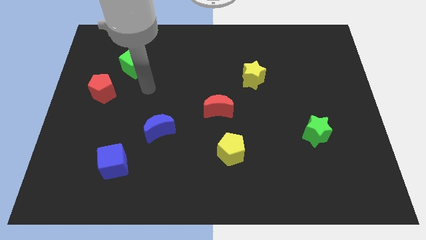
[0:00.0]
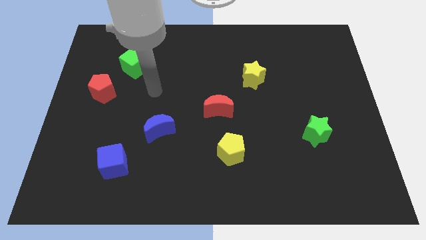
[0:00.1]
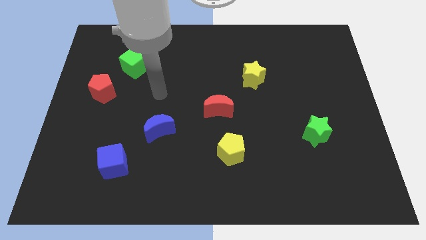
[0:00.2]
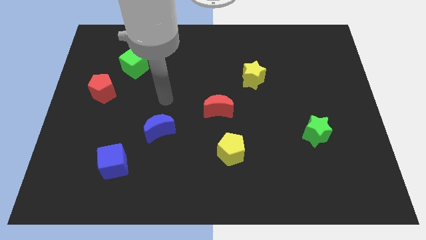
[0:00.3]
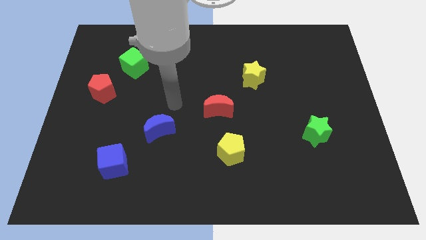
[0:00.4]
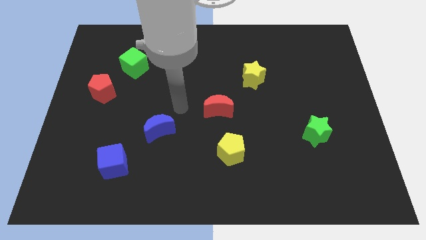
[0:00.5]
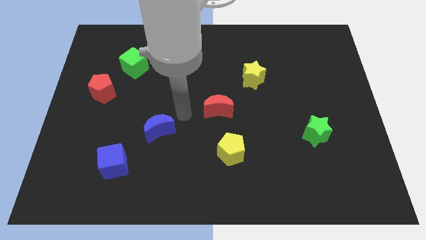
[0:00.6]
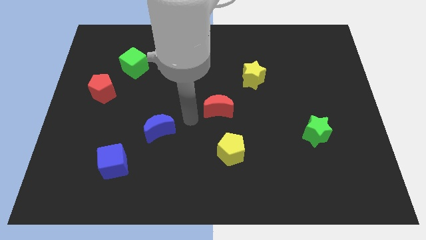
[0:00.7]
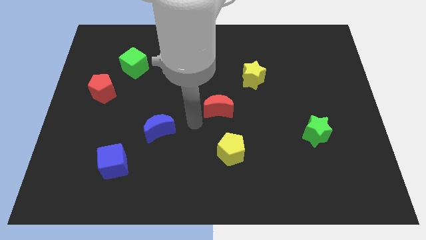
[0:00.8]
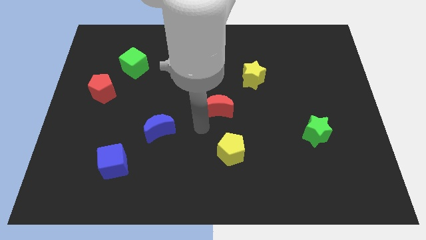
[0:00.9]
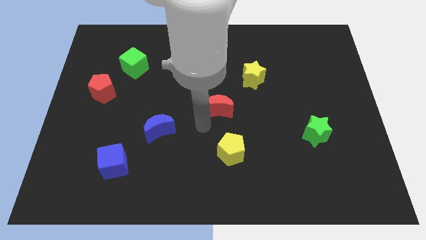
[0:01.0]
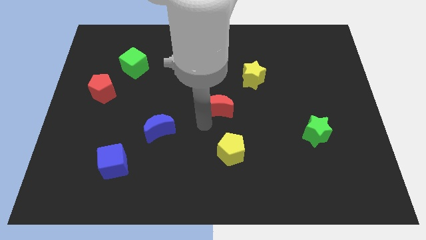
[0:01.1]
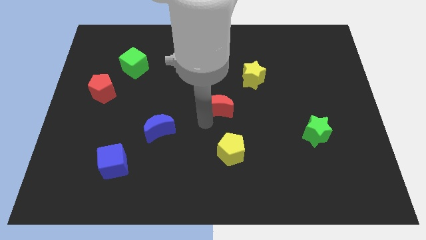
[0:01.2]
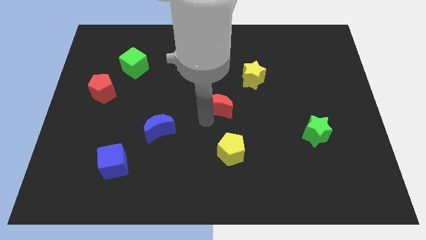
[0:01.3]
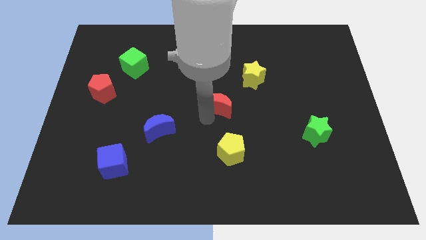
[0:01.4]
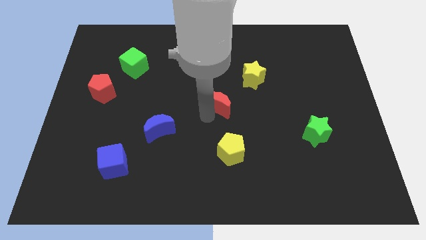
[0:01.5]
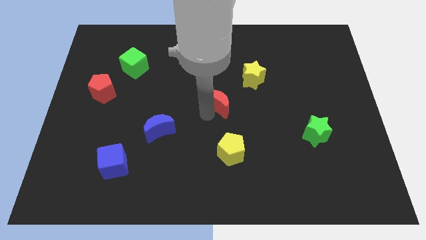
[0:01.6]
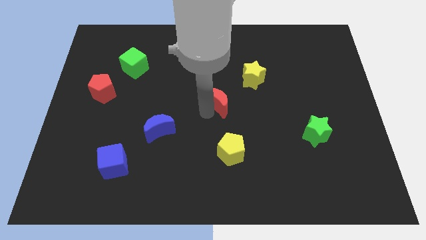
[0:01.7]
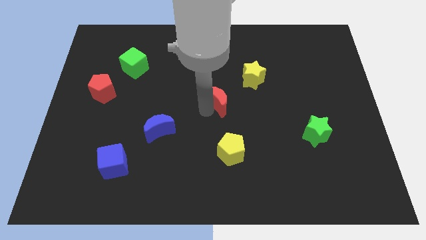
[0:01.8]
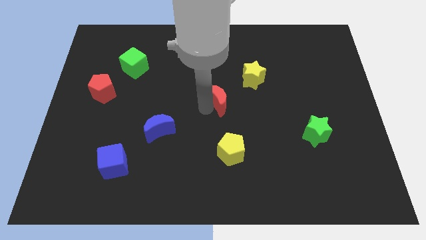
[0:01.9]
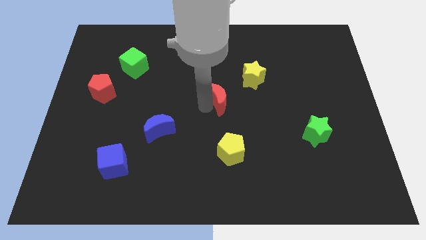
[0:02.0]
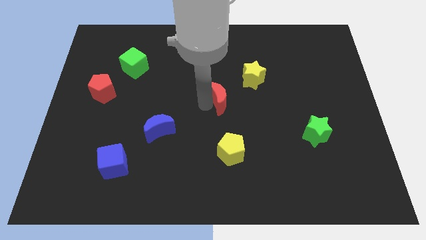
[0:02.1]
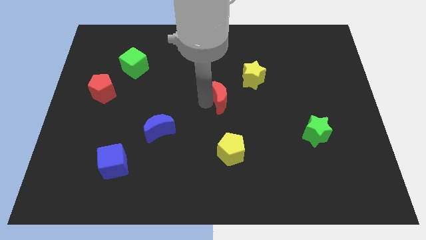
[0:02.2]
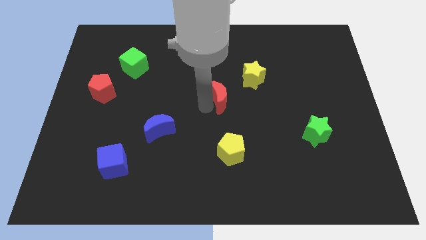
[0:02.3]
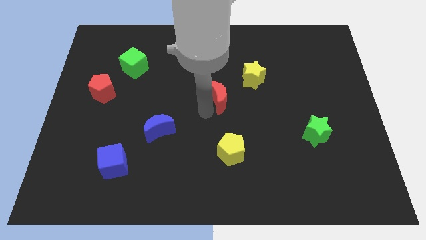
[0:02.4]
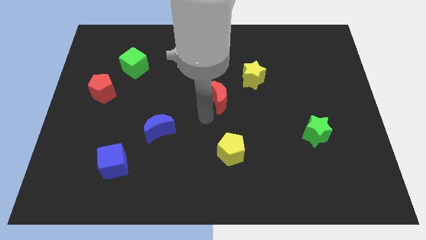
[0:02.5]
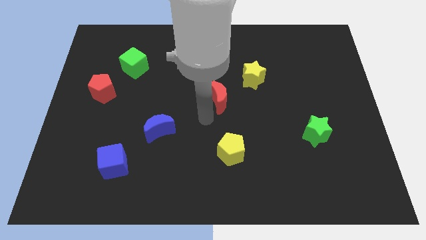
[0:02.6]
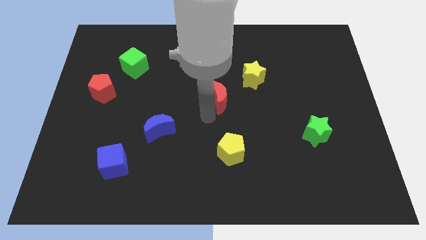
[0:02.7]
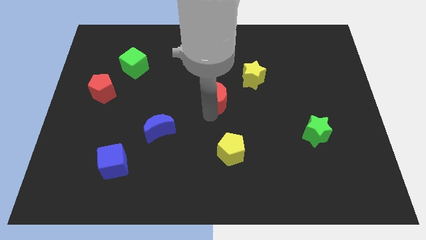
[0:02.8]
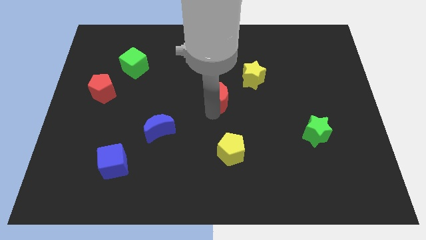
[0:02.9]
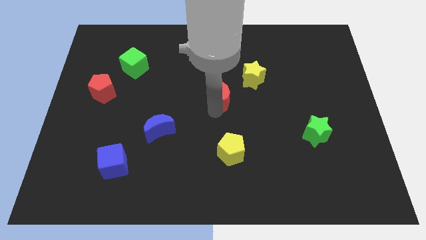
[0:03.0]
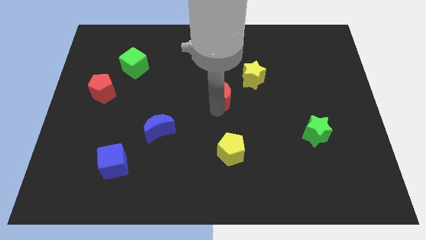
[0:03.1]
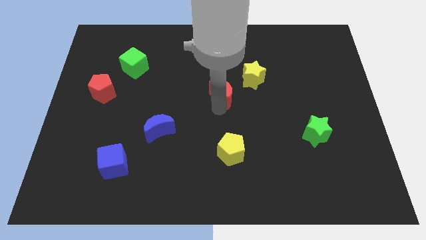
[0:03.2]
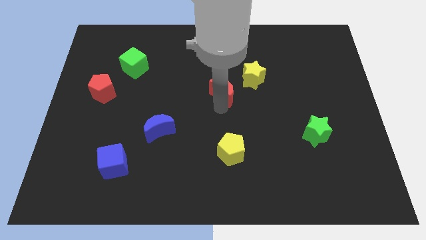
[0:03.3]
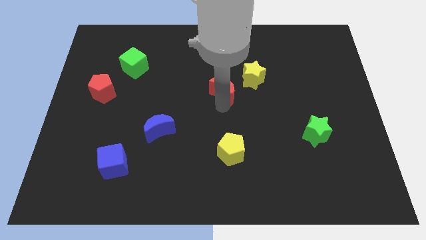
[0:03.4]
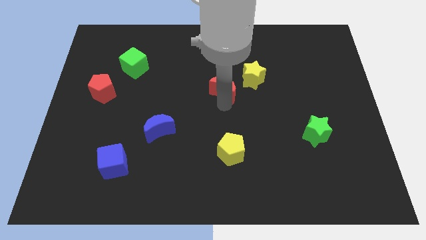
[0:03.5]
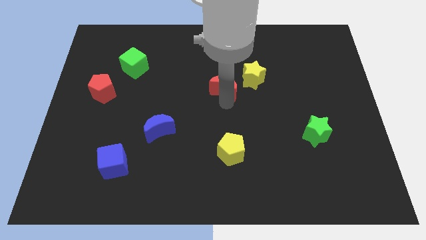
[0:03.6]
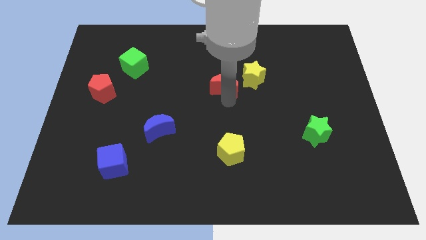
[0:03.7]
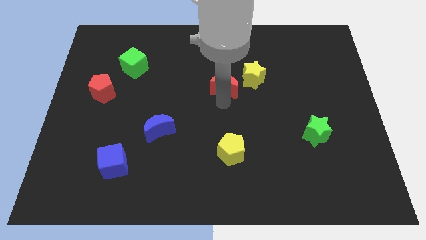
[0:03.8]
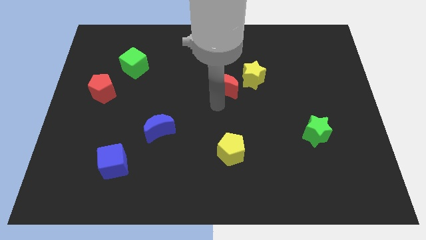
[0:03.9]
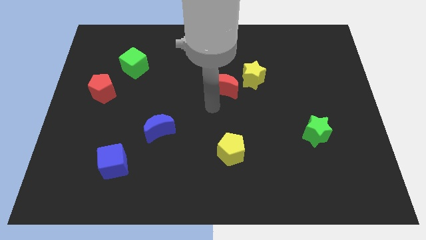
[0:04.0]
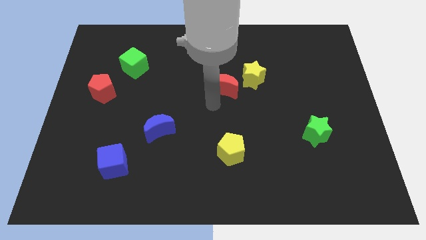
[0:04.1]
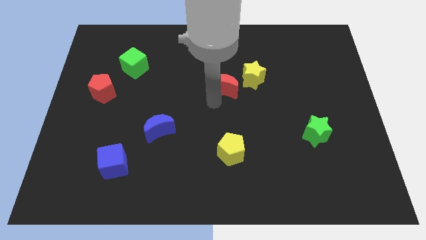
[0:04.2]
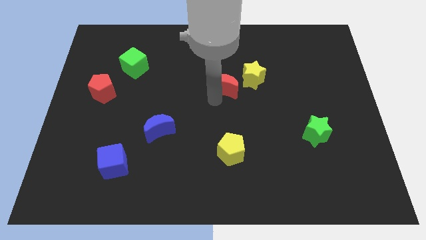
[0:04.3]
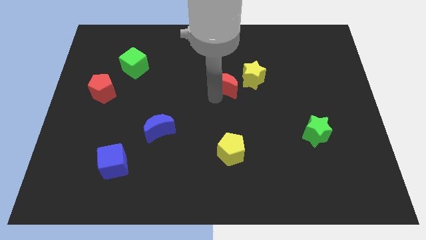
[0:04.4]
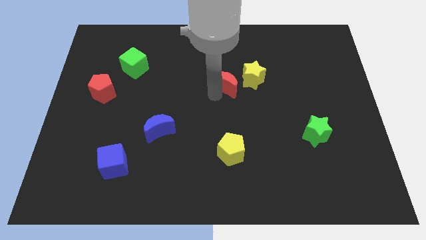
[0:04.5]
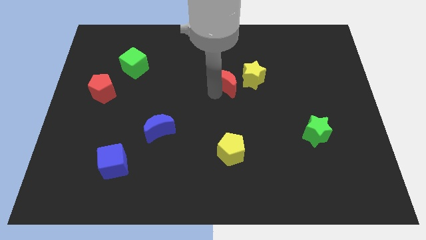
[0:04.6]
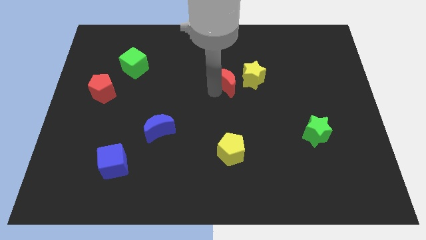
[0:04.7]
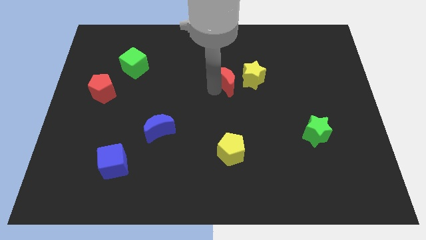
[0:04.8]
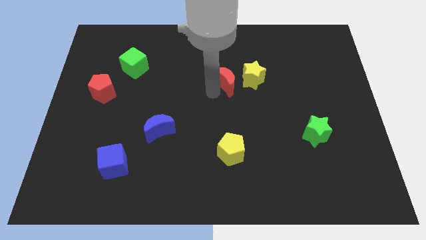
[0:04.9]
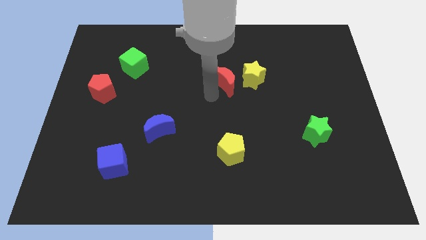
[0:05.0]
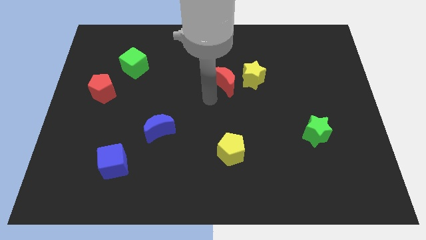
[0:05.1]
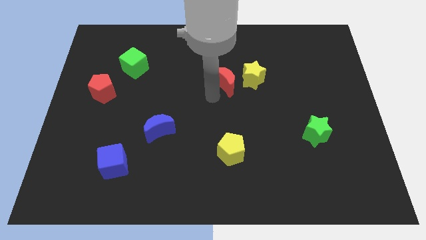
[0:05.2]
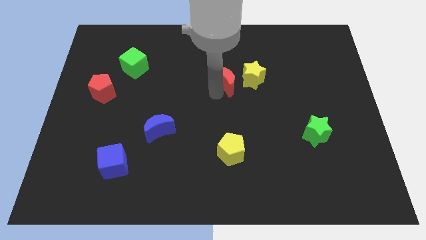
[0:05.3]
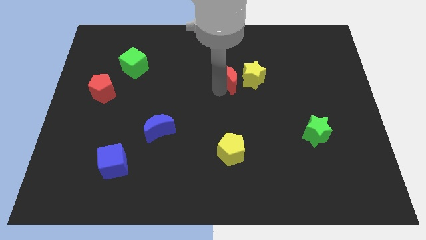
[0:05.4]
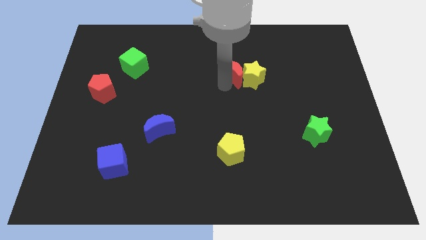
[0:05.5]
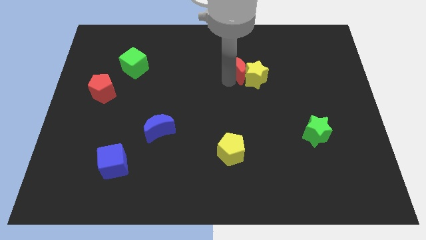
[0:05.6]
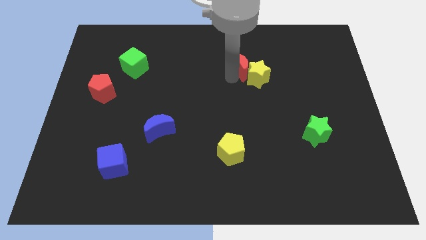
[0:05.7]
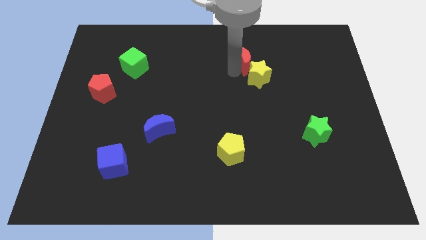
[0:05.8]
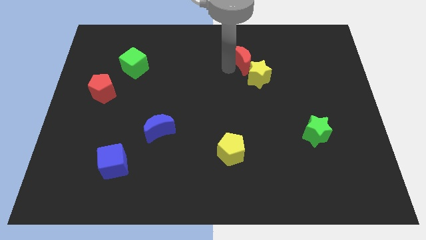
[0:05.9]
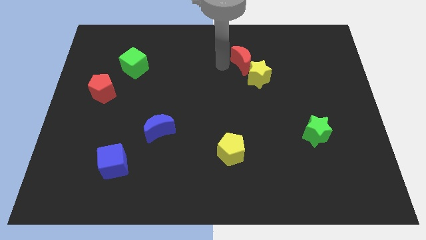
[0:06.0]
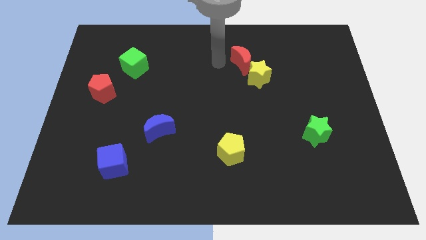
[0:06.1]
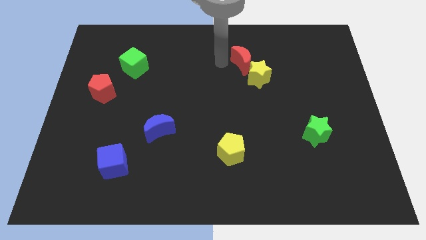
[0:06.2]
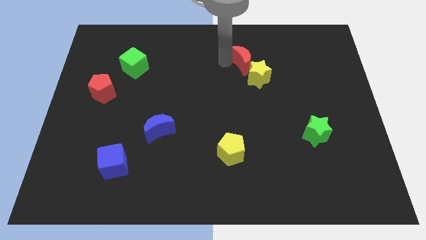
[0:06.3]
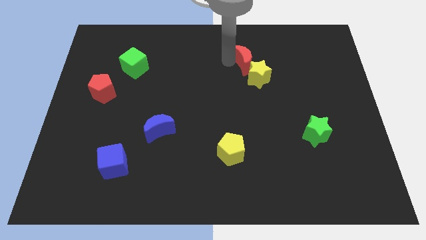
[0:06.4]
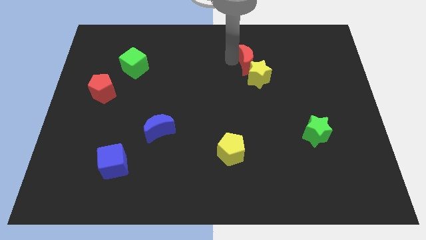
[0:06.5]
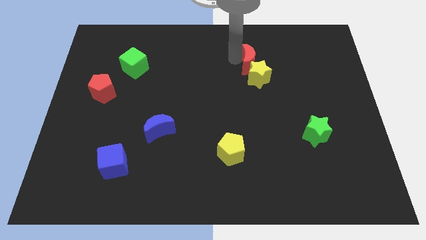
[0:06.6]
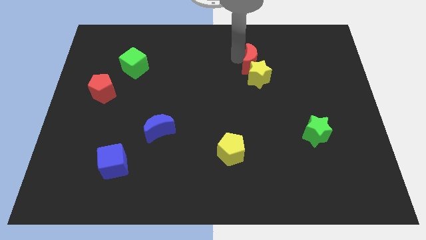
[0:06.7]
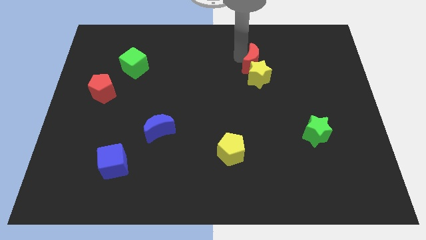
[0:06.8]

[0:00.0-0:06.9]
move the red moon to the top right of the yellow star
